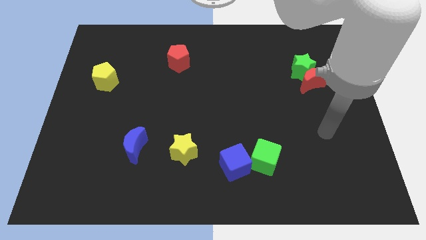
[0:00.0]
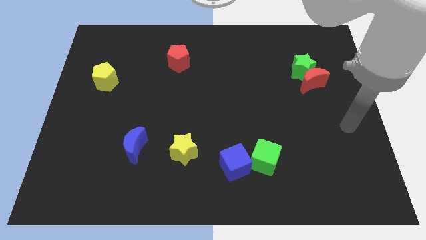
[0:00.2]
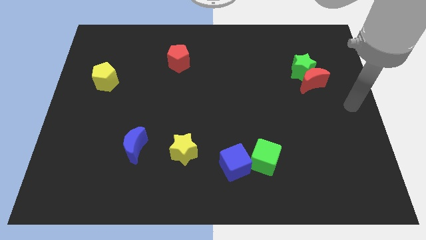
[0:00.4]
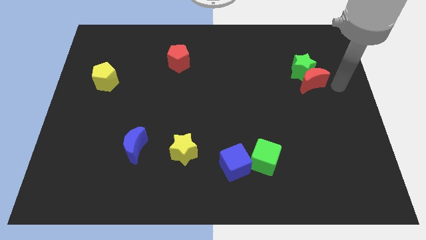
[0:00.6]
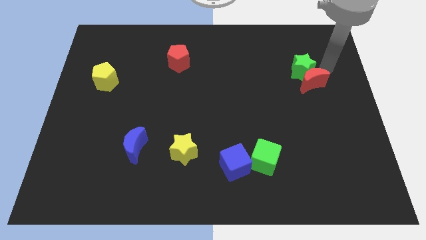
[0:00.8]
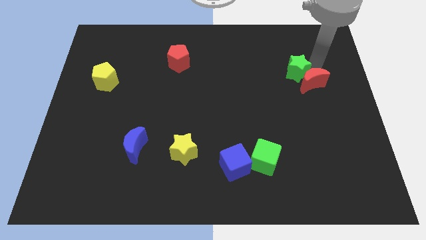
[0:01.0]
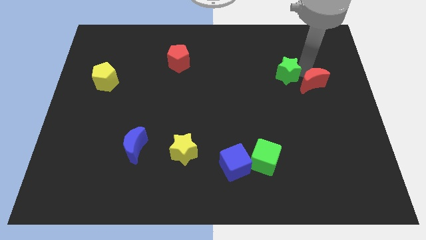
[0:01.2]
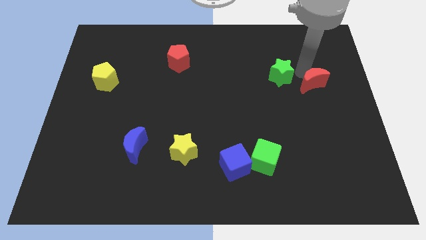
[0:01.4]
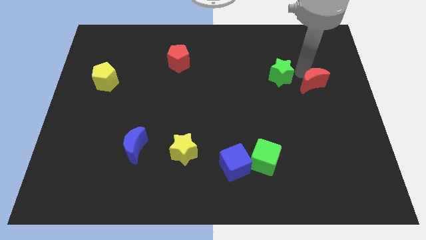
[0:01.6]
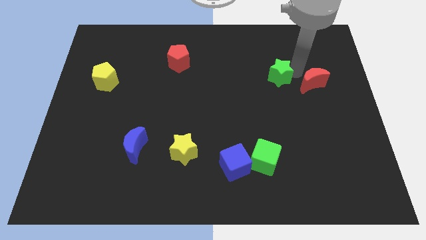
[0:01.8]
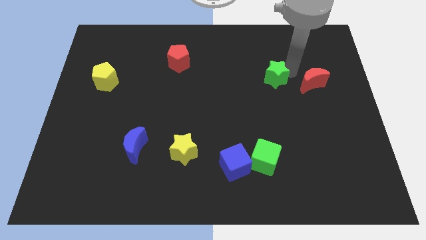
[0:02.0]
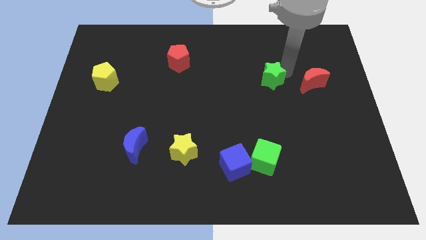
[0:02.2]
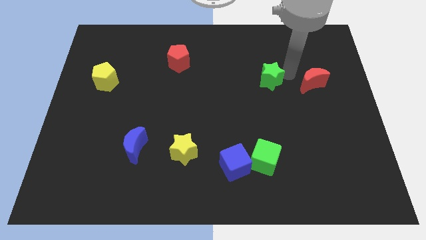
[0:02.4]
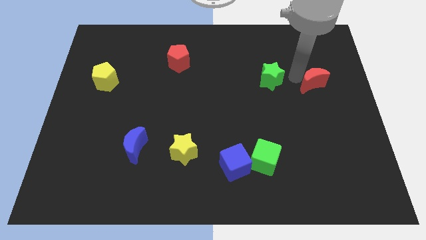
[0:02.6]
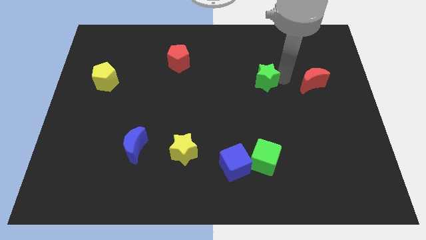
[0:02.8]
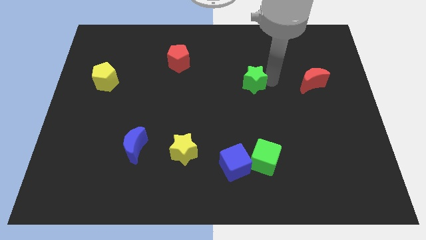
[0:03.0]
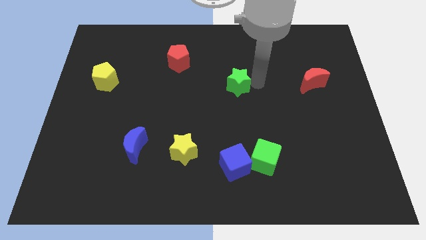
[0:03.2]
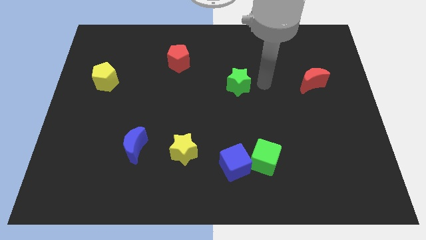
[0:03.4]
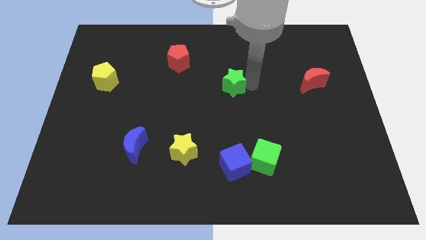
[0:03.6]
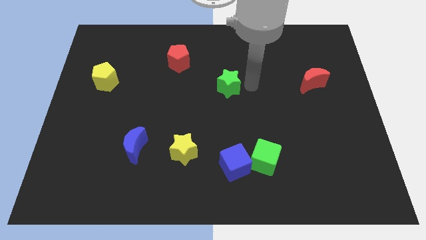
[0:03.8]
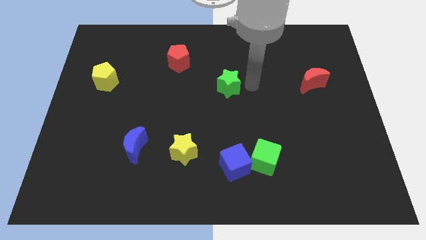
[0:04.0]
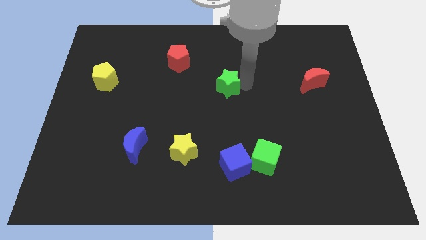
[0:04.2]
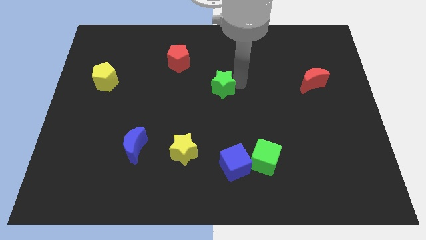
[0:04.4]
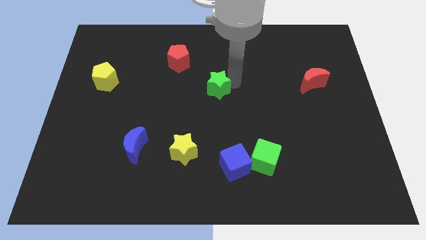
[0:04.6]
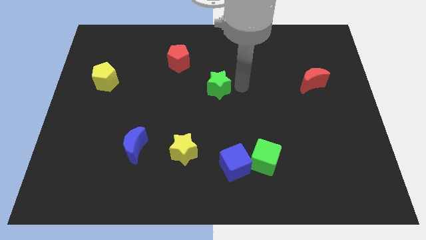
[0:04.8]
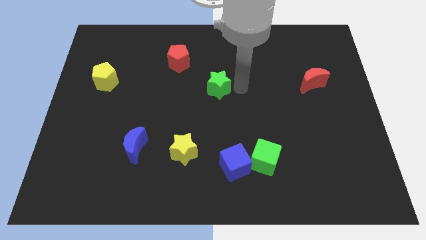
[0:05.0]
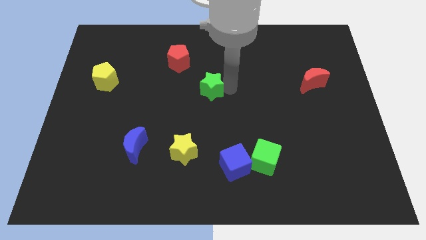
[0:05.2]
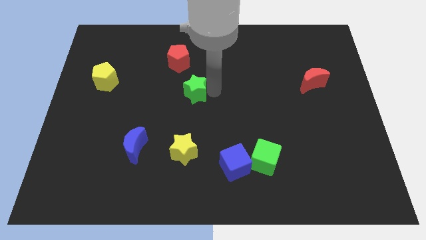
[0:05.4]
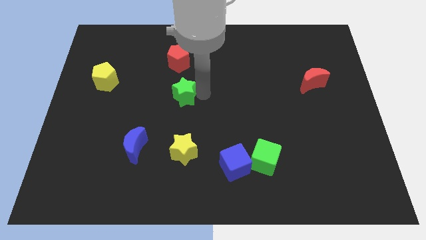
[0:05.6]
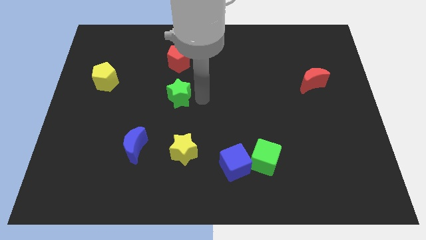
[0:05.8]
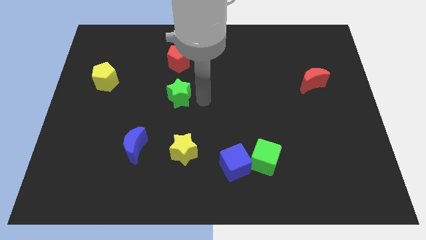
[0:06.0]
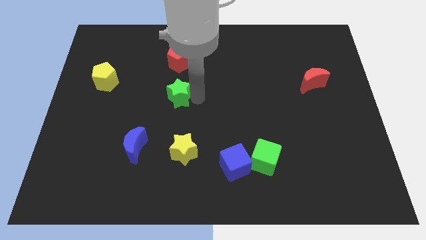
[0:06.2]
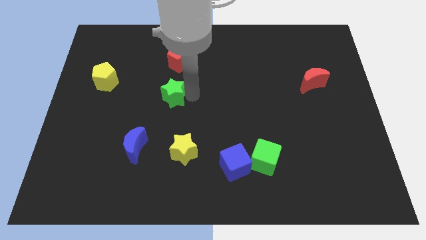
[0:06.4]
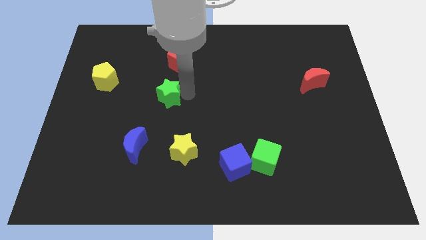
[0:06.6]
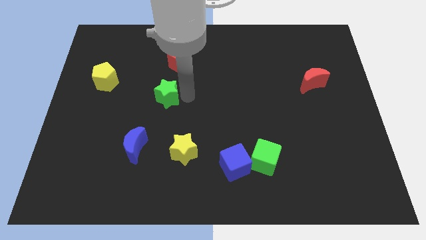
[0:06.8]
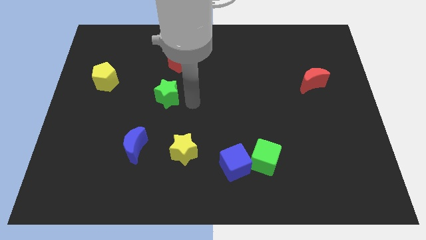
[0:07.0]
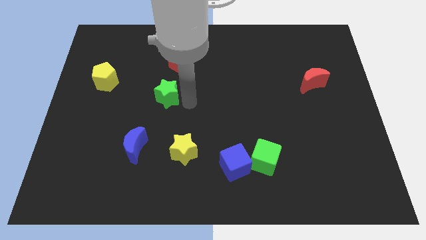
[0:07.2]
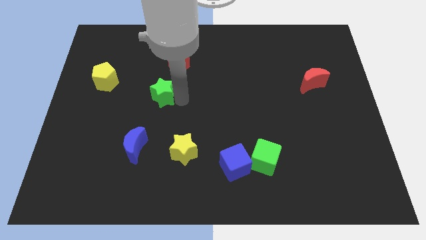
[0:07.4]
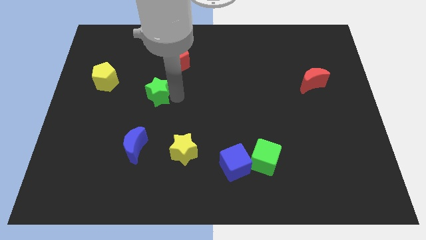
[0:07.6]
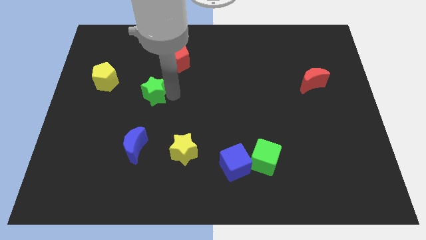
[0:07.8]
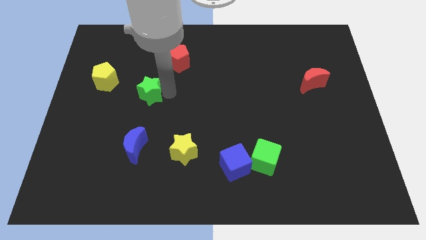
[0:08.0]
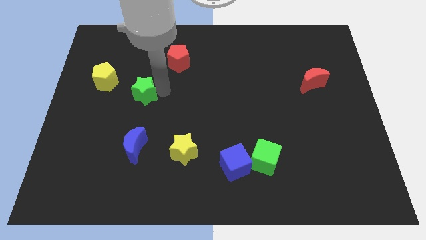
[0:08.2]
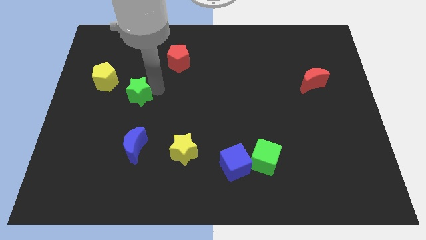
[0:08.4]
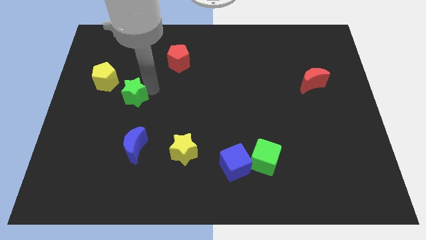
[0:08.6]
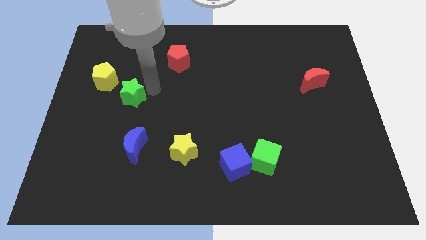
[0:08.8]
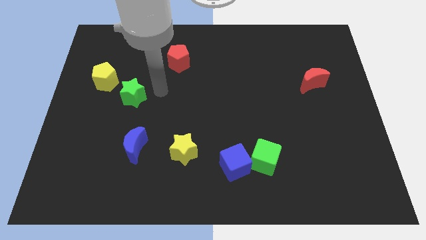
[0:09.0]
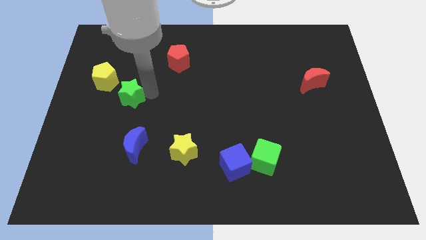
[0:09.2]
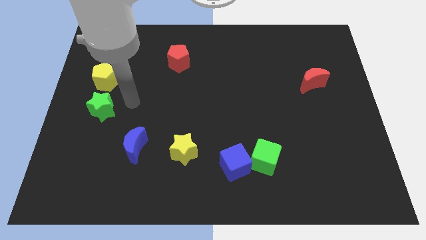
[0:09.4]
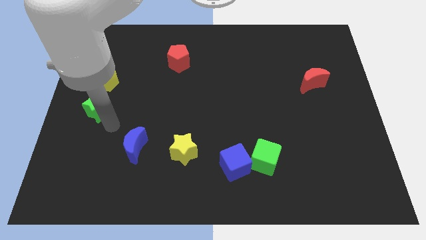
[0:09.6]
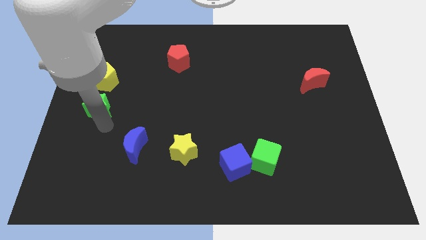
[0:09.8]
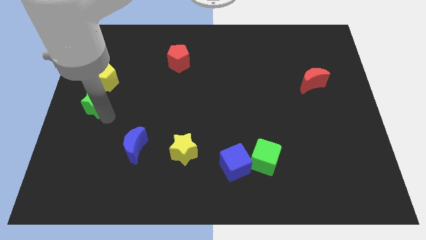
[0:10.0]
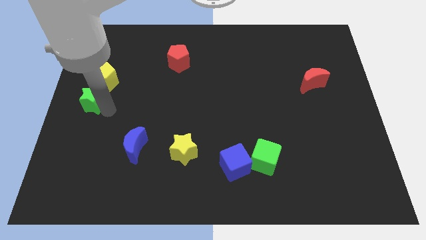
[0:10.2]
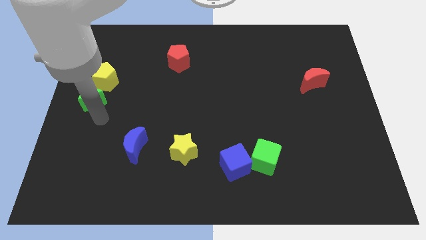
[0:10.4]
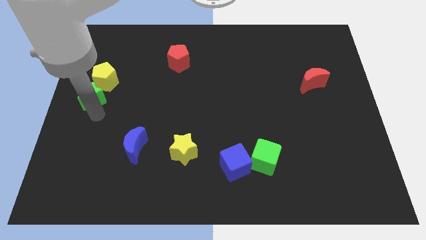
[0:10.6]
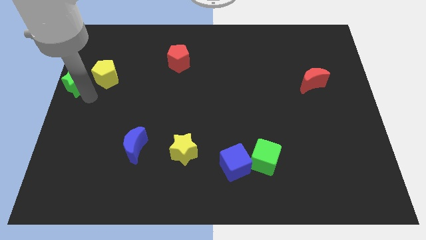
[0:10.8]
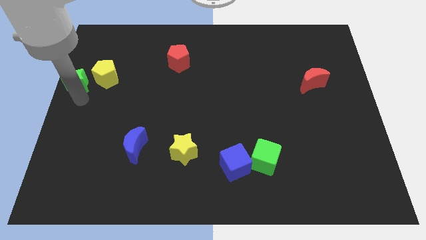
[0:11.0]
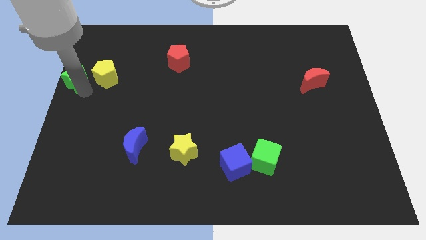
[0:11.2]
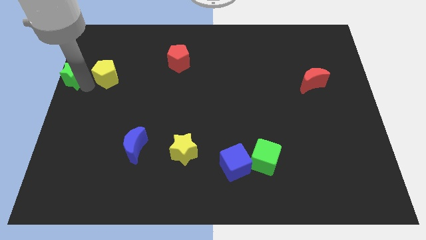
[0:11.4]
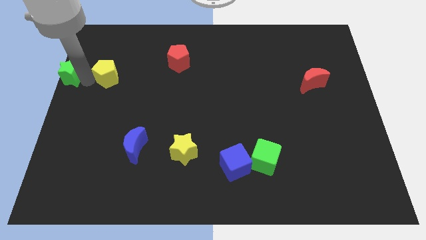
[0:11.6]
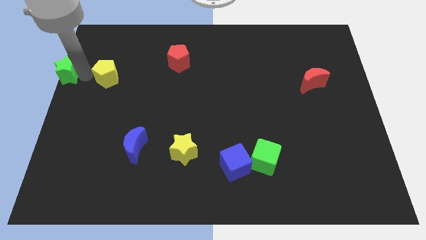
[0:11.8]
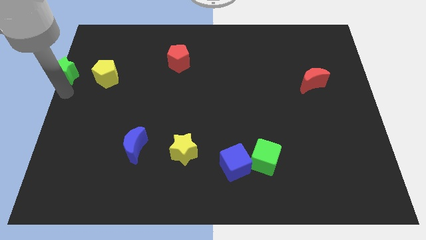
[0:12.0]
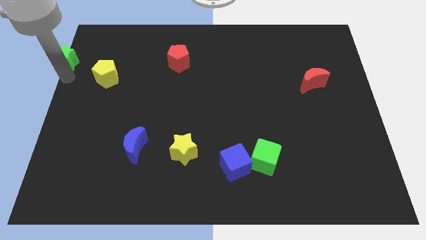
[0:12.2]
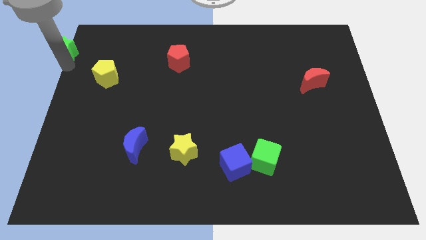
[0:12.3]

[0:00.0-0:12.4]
move the green star to the upper left corner
